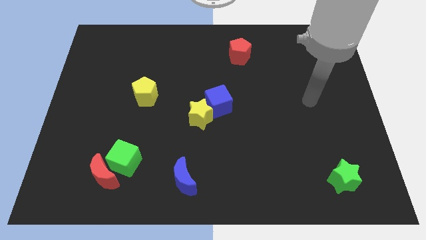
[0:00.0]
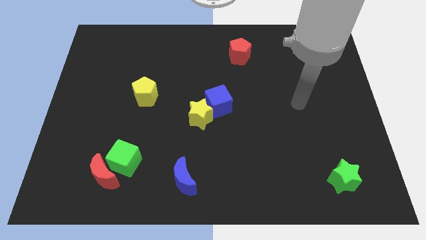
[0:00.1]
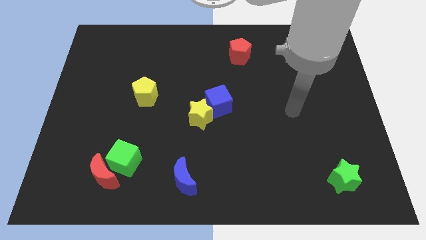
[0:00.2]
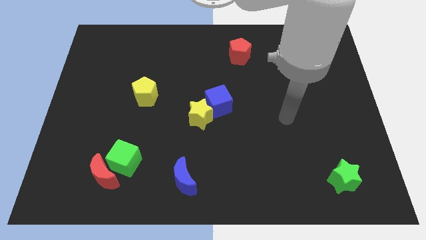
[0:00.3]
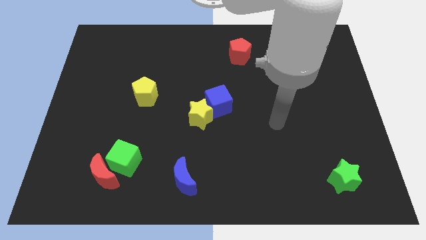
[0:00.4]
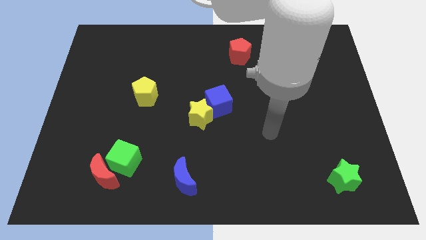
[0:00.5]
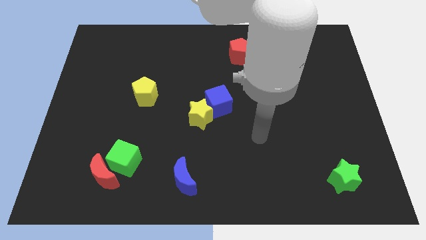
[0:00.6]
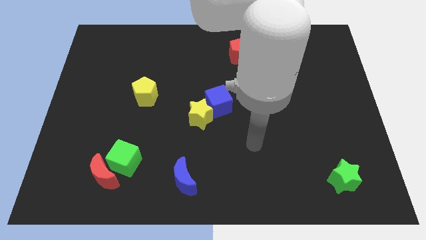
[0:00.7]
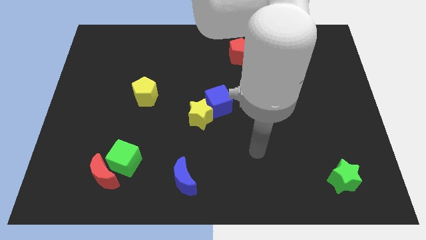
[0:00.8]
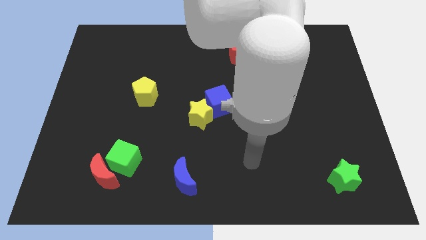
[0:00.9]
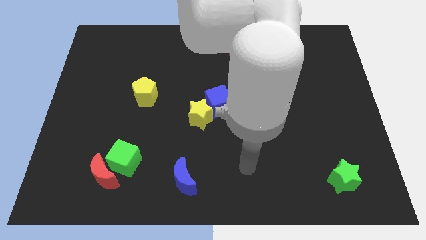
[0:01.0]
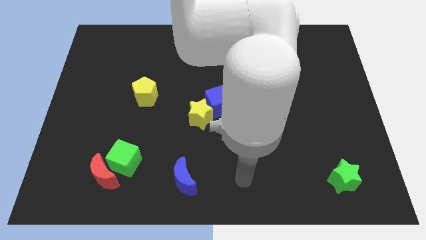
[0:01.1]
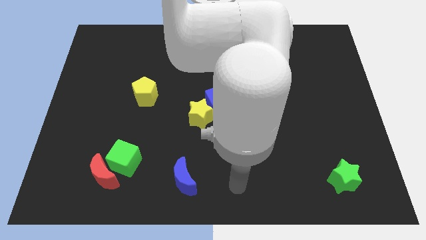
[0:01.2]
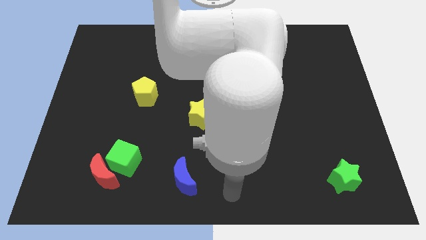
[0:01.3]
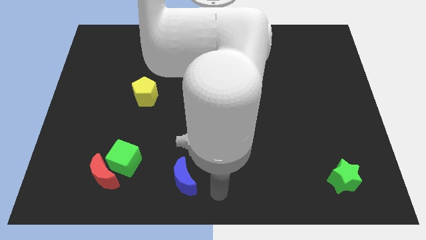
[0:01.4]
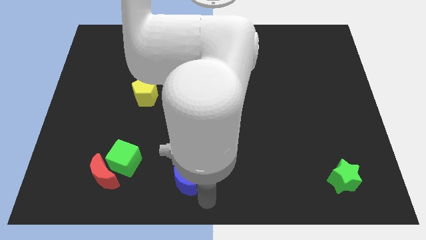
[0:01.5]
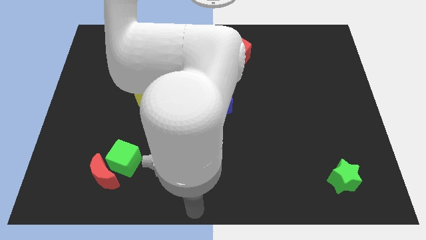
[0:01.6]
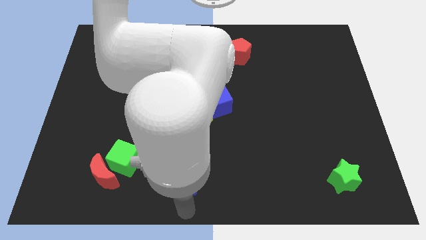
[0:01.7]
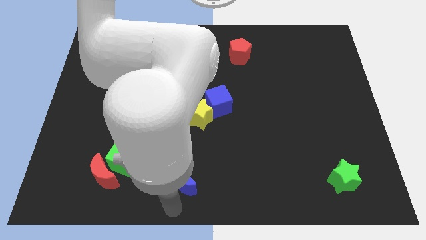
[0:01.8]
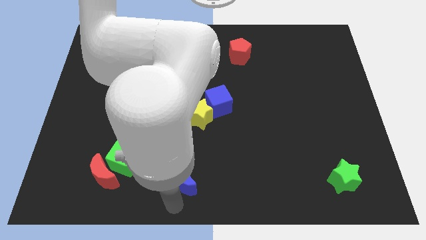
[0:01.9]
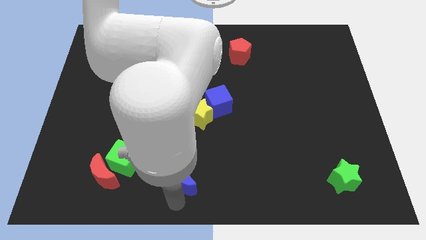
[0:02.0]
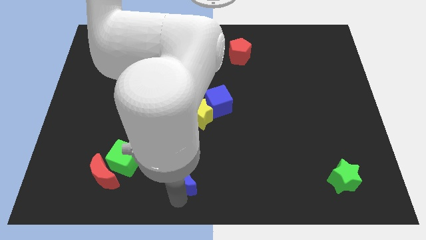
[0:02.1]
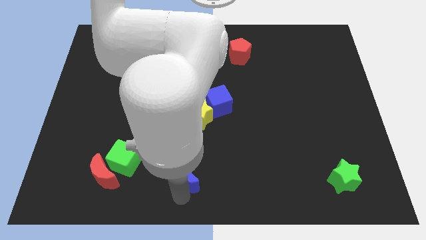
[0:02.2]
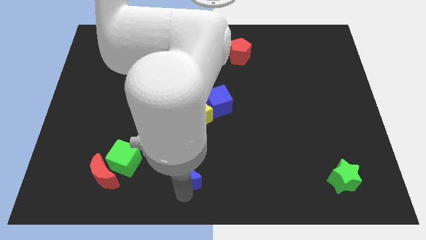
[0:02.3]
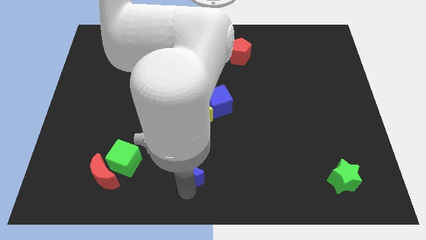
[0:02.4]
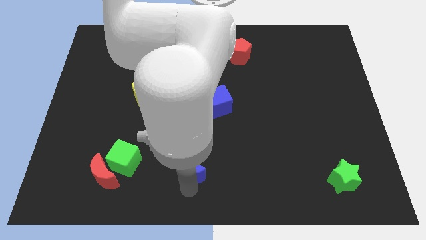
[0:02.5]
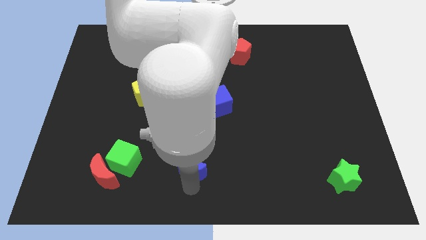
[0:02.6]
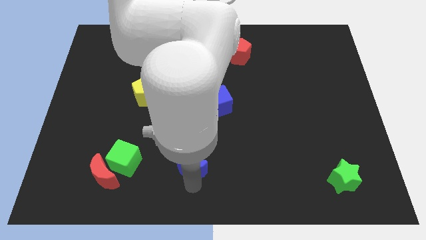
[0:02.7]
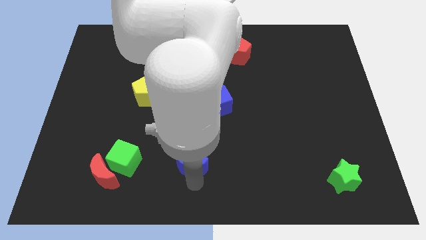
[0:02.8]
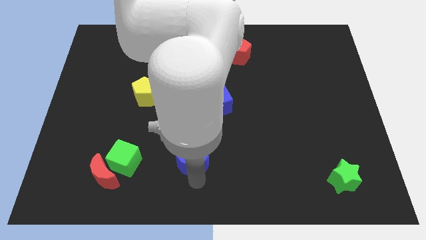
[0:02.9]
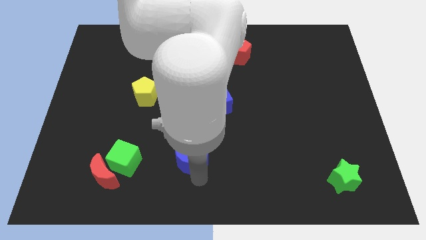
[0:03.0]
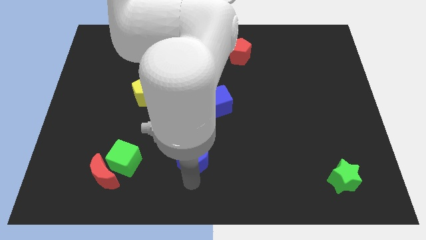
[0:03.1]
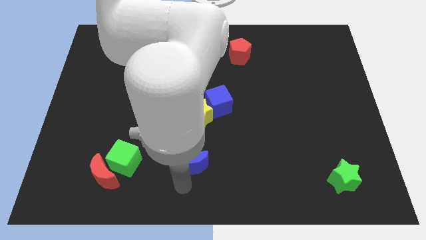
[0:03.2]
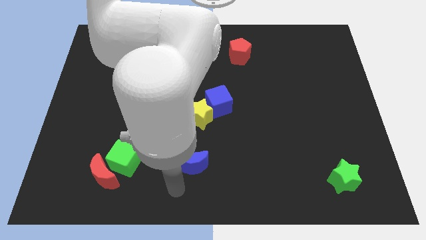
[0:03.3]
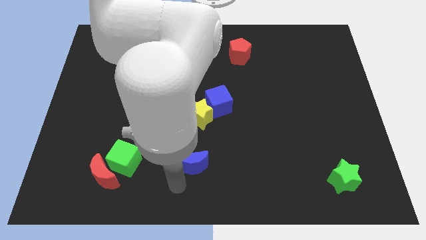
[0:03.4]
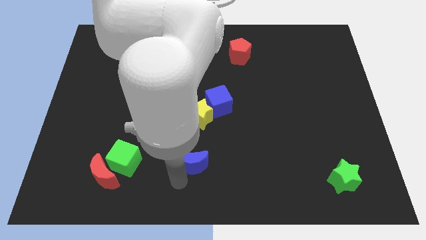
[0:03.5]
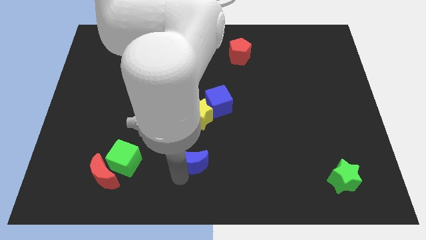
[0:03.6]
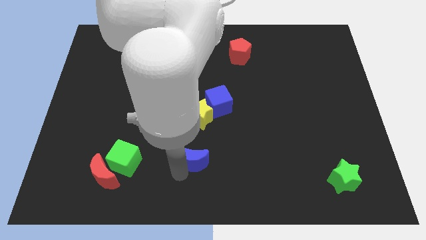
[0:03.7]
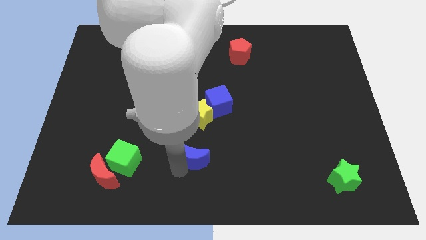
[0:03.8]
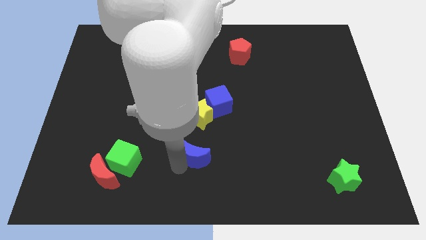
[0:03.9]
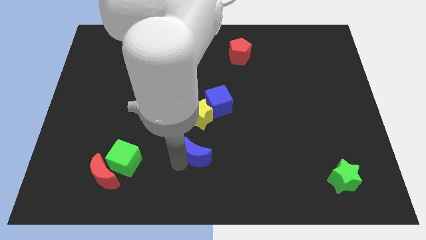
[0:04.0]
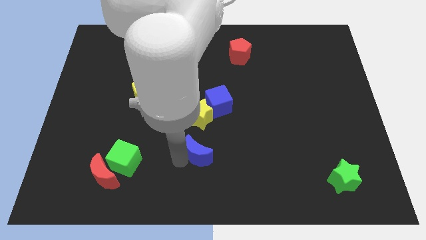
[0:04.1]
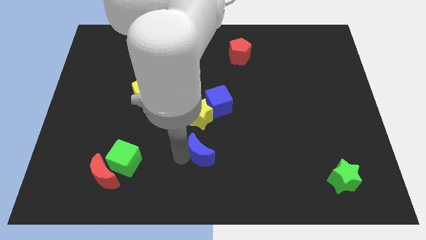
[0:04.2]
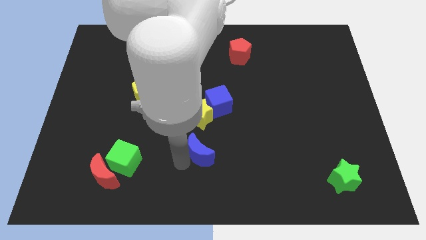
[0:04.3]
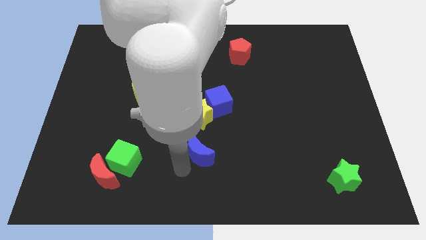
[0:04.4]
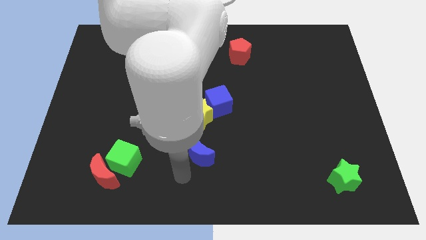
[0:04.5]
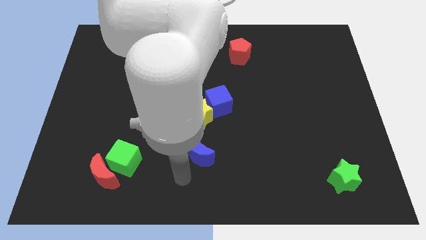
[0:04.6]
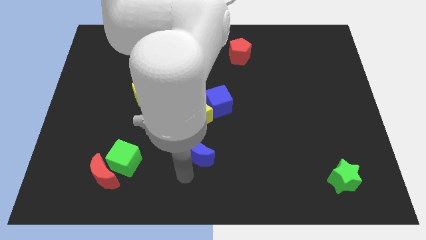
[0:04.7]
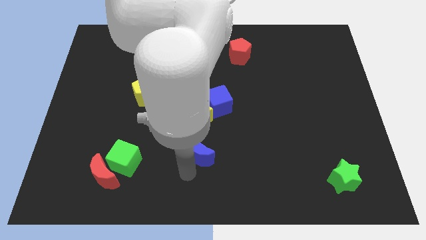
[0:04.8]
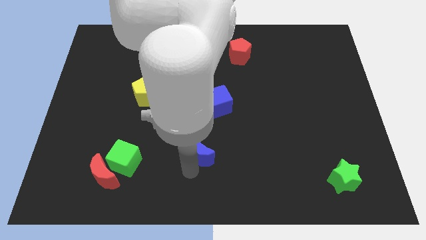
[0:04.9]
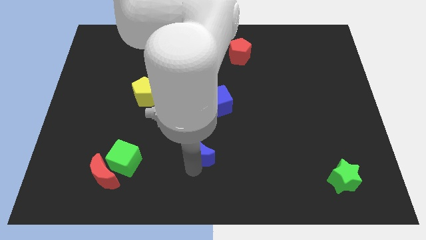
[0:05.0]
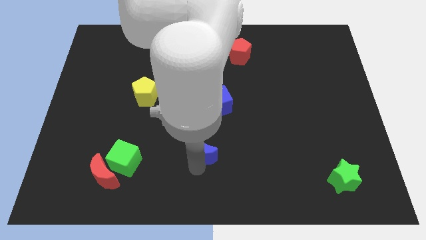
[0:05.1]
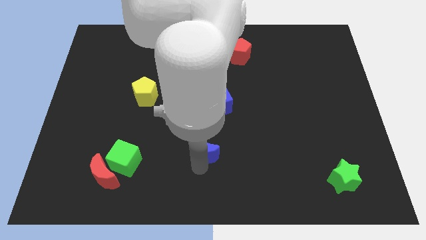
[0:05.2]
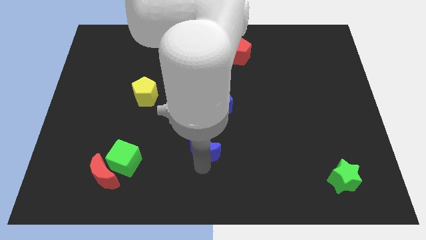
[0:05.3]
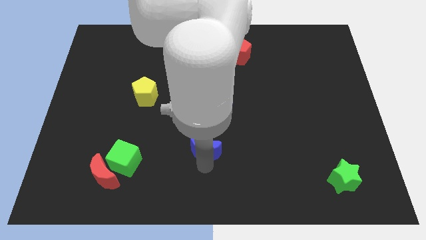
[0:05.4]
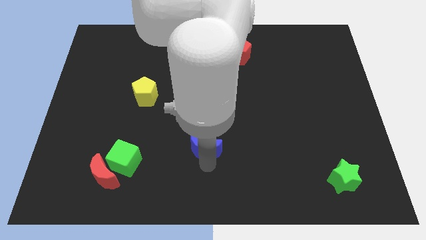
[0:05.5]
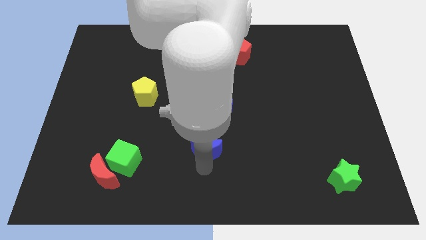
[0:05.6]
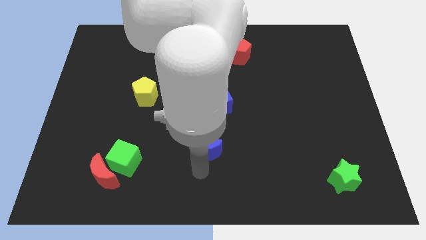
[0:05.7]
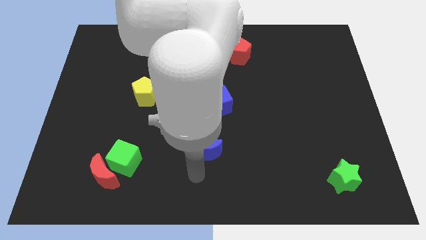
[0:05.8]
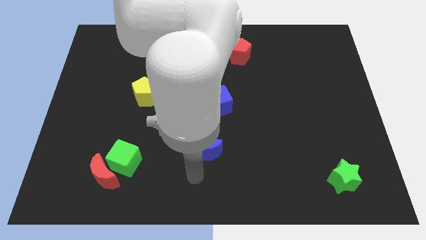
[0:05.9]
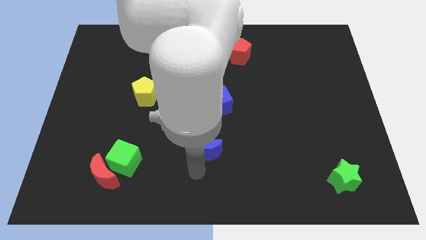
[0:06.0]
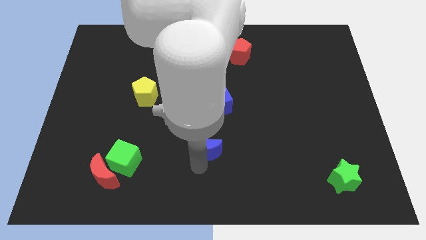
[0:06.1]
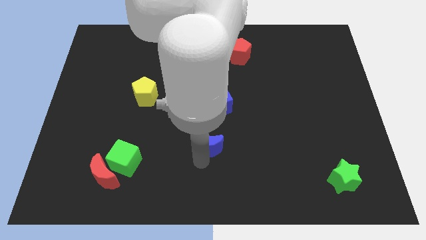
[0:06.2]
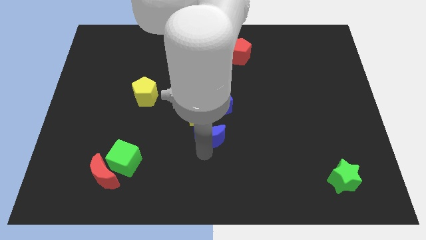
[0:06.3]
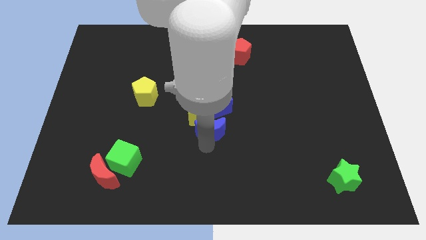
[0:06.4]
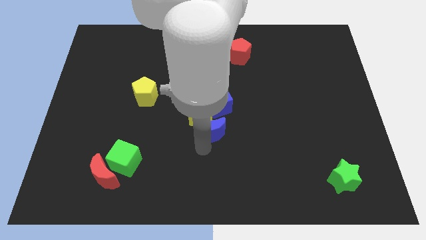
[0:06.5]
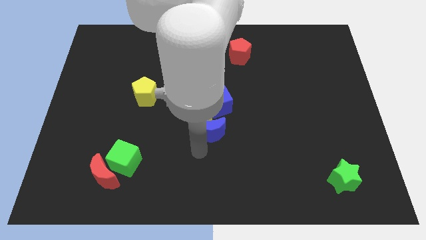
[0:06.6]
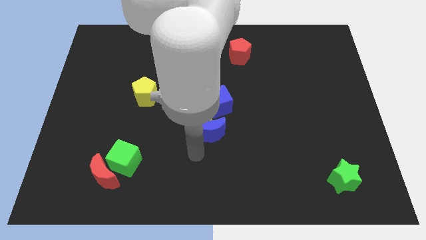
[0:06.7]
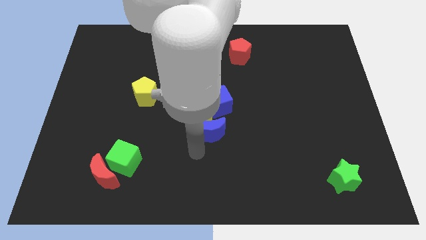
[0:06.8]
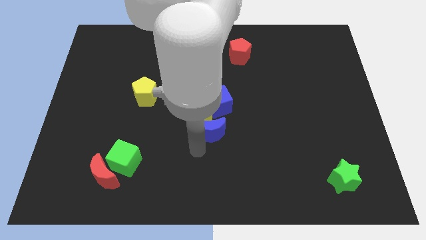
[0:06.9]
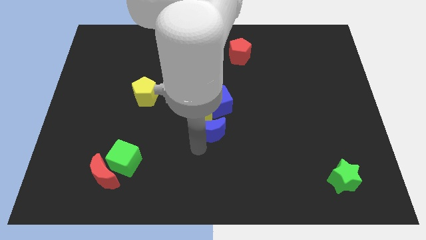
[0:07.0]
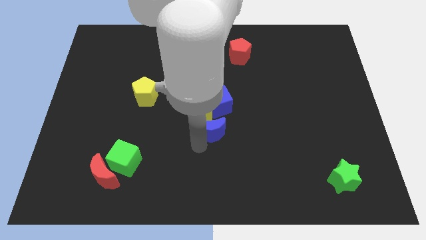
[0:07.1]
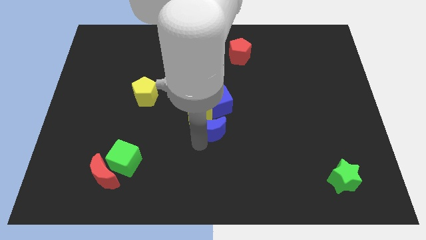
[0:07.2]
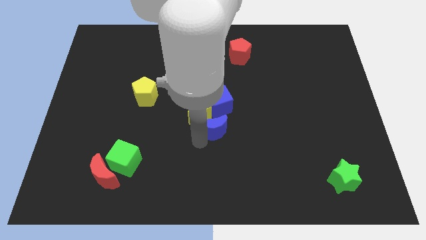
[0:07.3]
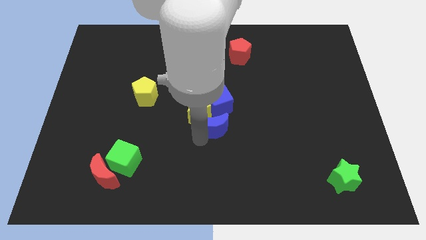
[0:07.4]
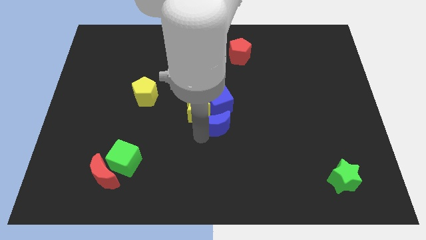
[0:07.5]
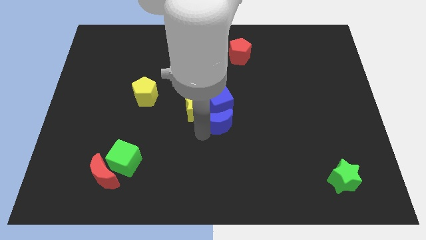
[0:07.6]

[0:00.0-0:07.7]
push the blue moon next to the blue cube
